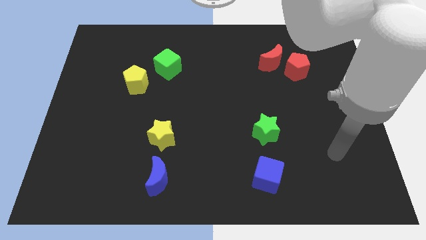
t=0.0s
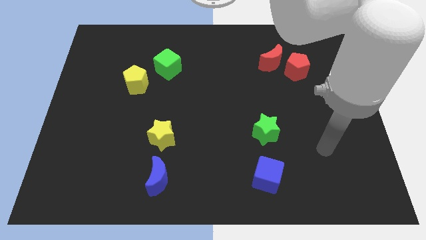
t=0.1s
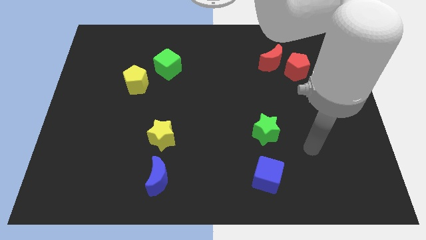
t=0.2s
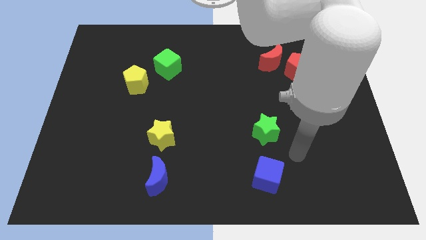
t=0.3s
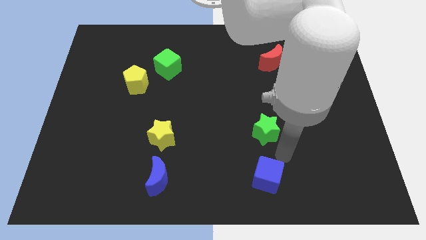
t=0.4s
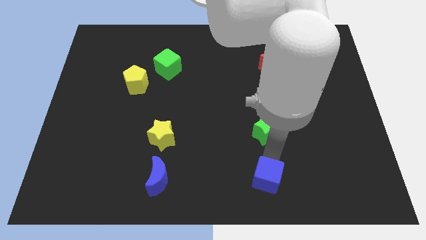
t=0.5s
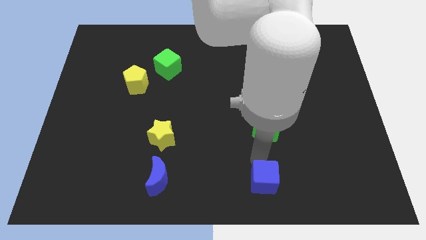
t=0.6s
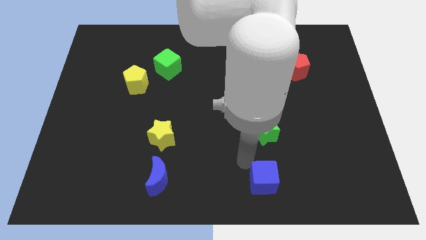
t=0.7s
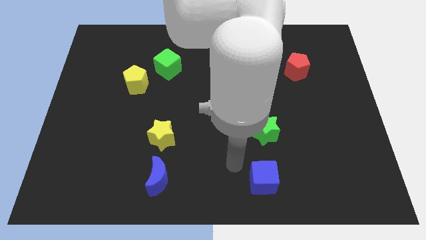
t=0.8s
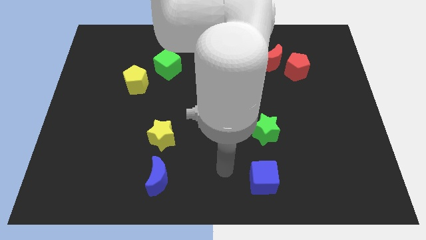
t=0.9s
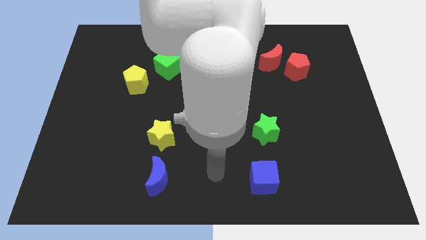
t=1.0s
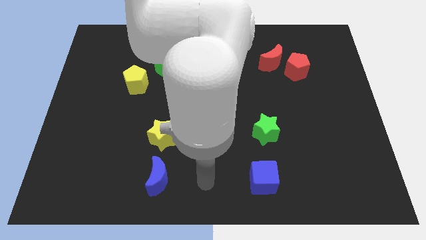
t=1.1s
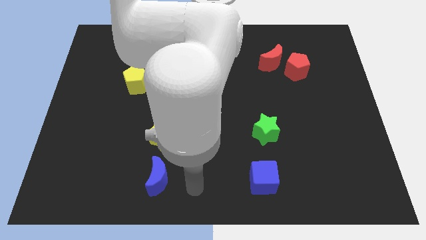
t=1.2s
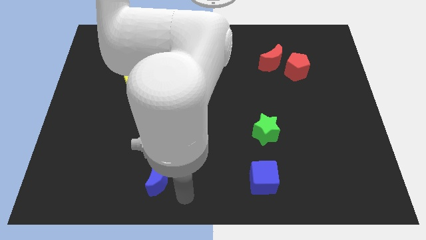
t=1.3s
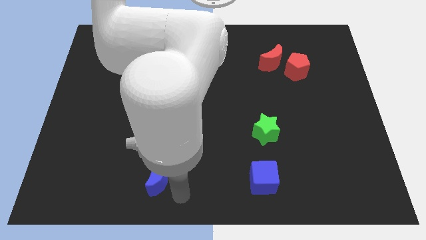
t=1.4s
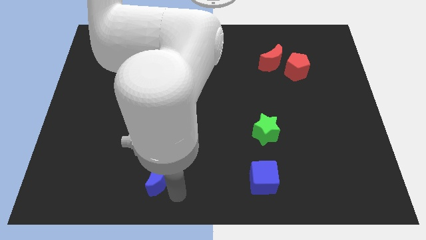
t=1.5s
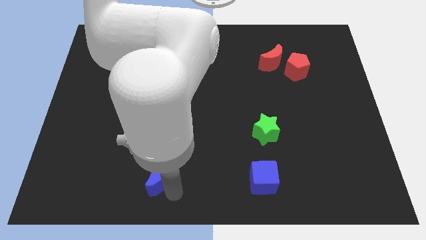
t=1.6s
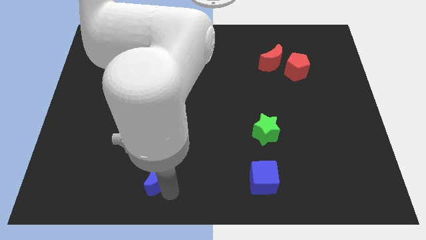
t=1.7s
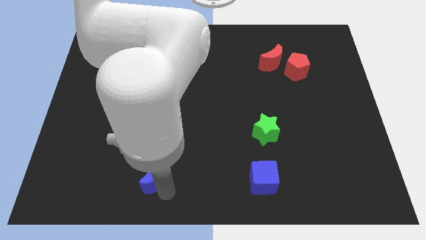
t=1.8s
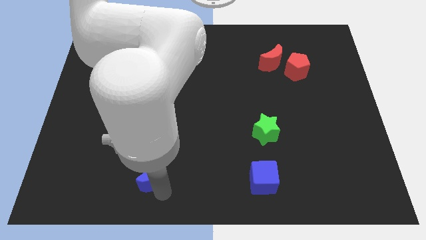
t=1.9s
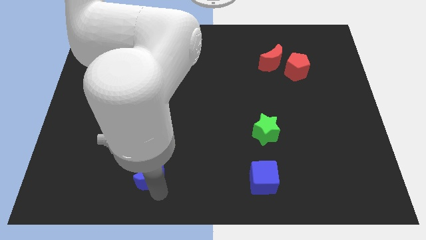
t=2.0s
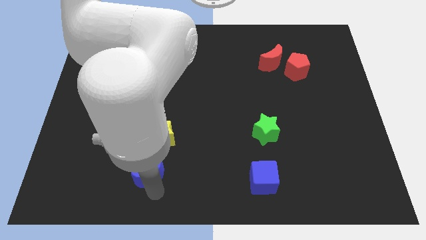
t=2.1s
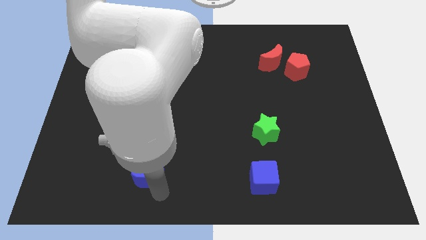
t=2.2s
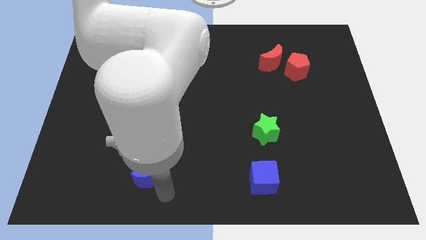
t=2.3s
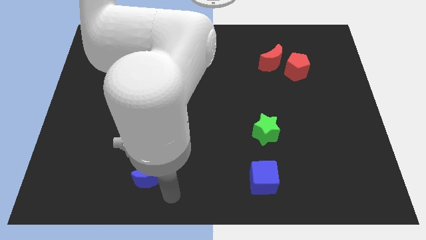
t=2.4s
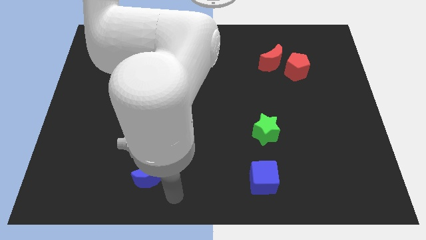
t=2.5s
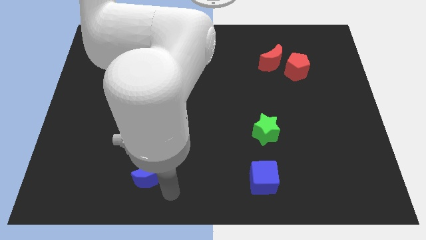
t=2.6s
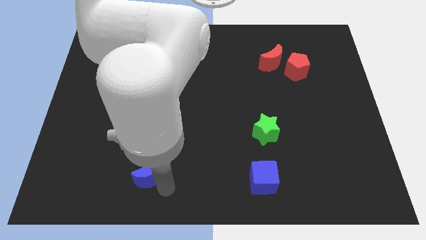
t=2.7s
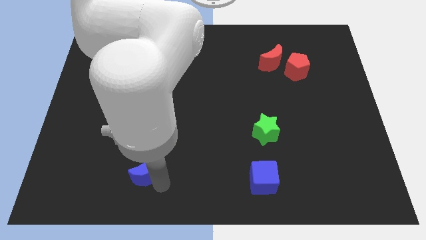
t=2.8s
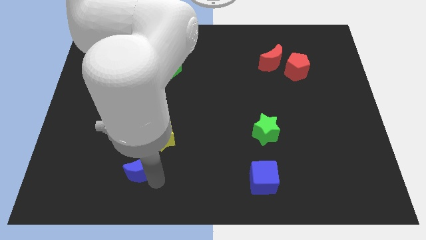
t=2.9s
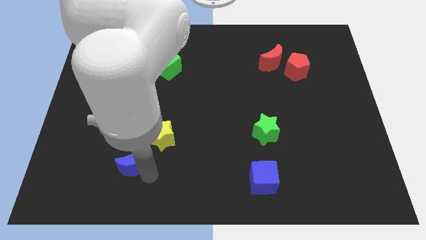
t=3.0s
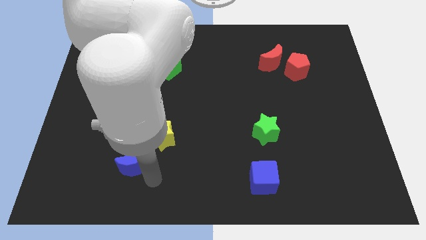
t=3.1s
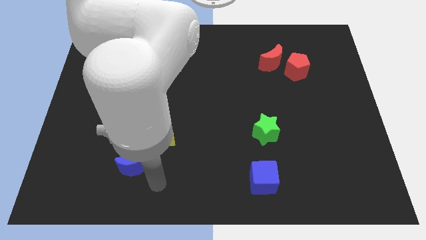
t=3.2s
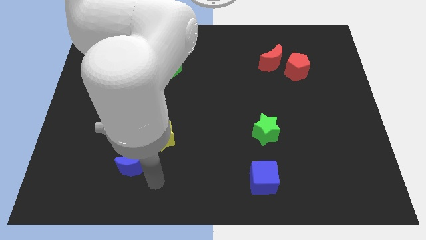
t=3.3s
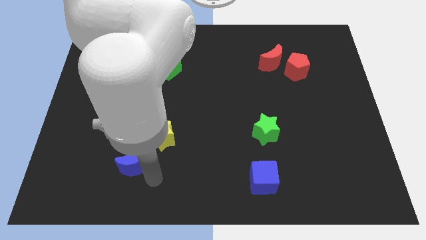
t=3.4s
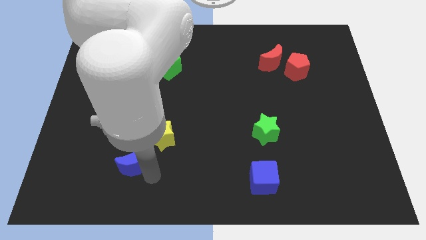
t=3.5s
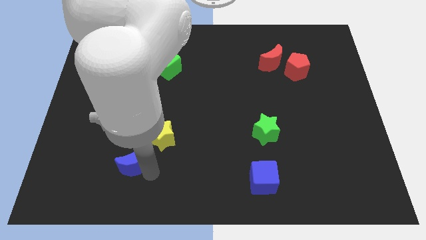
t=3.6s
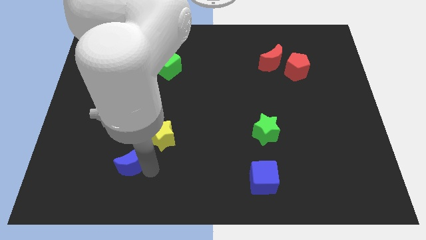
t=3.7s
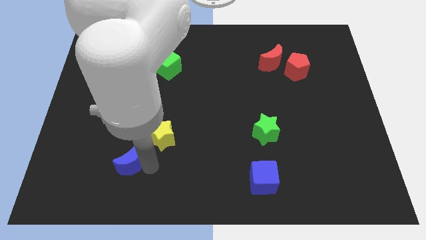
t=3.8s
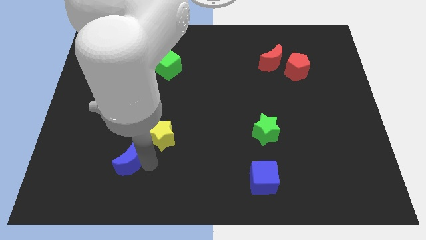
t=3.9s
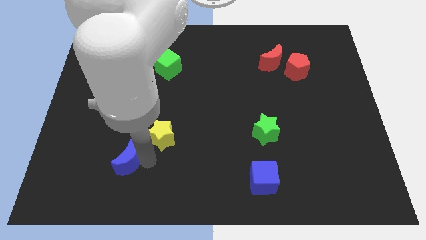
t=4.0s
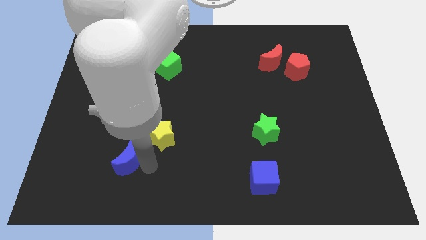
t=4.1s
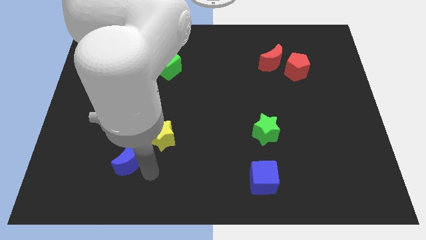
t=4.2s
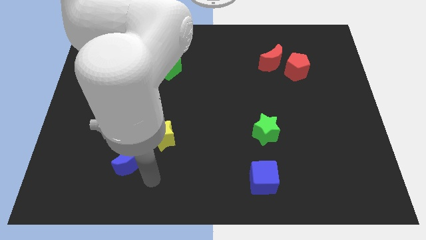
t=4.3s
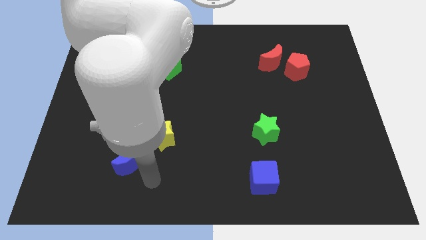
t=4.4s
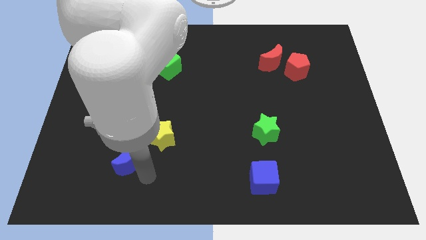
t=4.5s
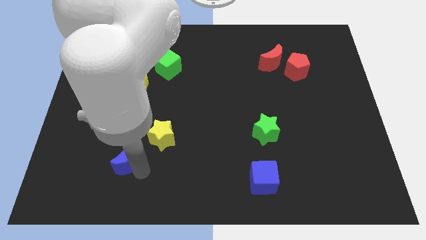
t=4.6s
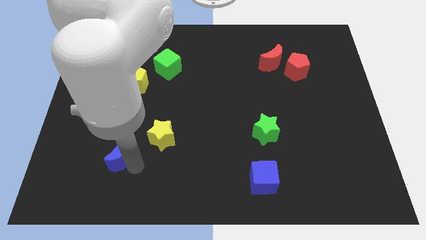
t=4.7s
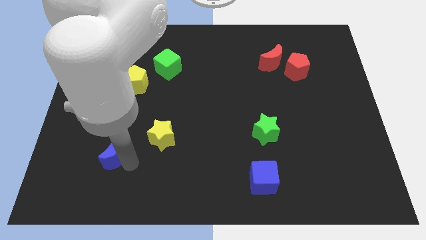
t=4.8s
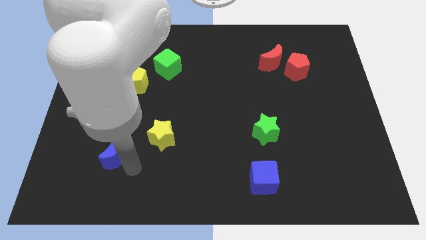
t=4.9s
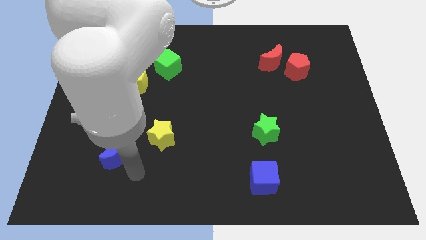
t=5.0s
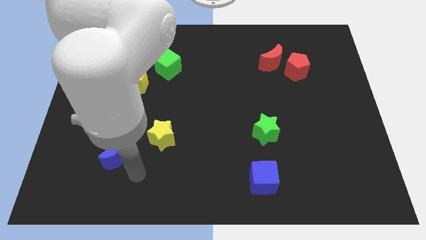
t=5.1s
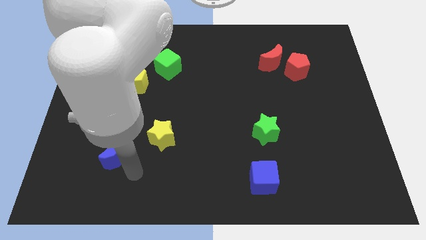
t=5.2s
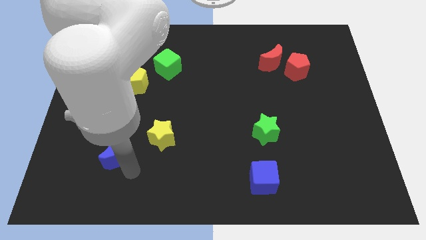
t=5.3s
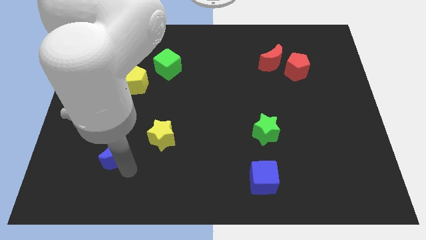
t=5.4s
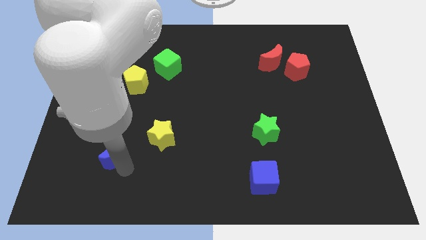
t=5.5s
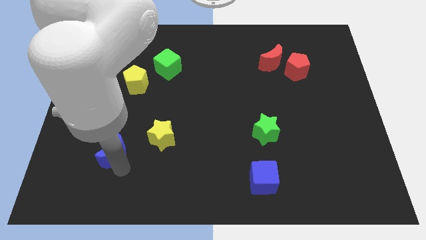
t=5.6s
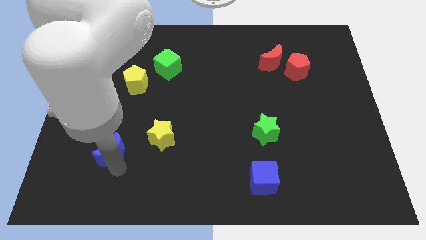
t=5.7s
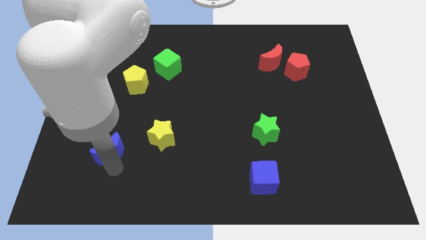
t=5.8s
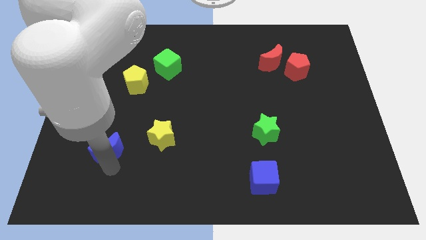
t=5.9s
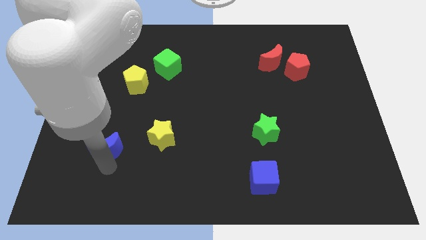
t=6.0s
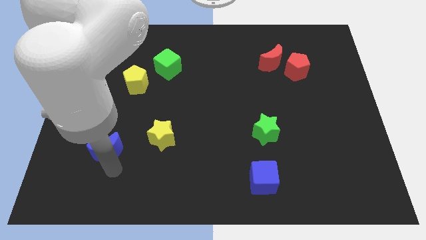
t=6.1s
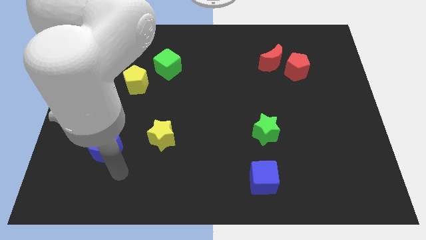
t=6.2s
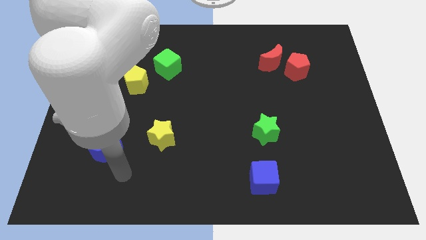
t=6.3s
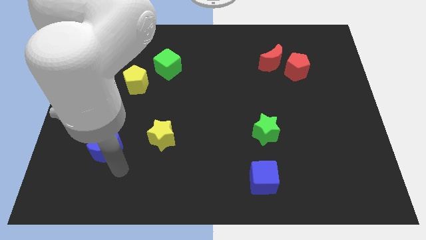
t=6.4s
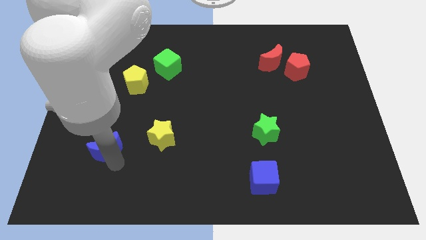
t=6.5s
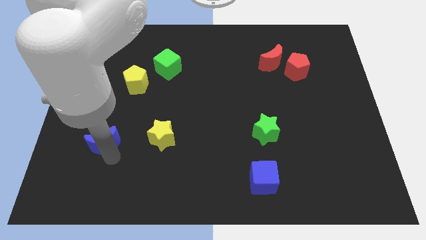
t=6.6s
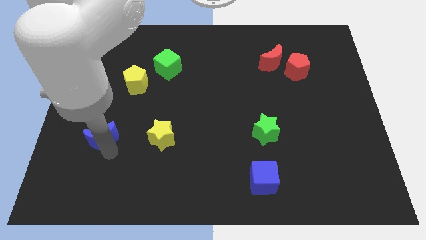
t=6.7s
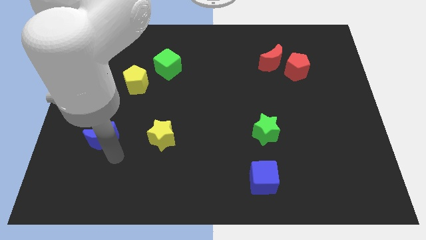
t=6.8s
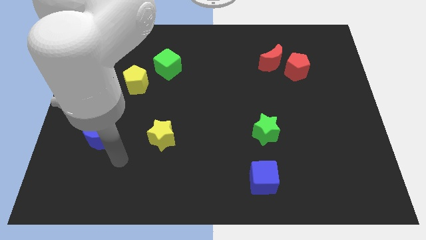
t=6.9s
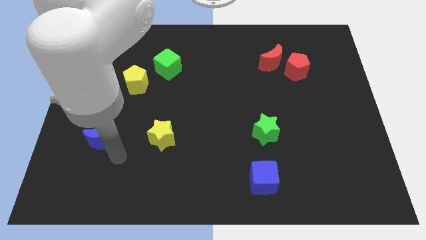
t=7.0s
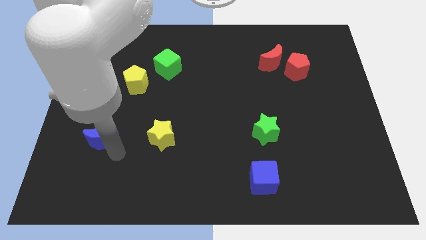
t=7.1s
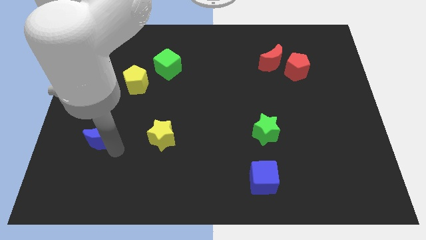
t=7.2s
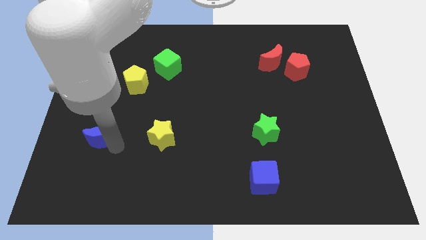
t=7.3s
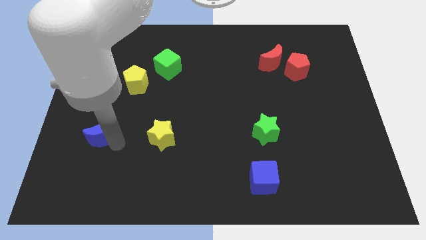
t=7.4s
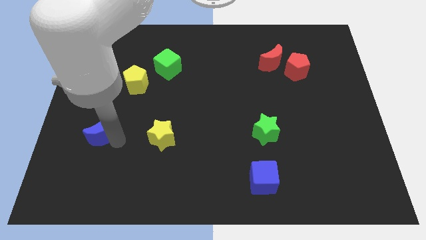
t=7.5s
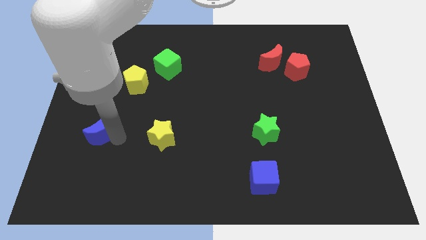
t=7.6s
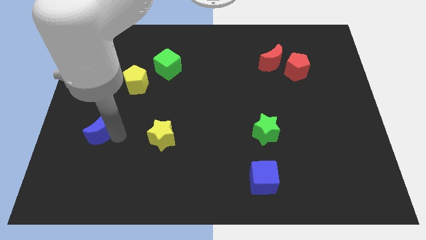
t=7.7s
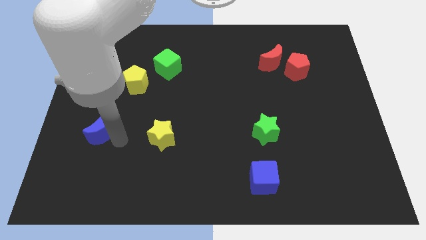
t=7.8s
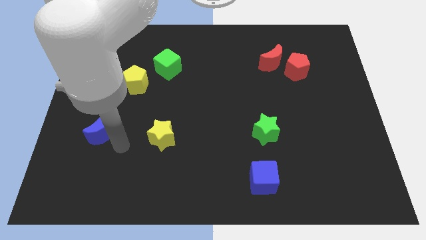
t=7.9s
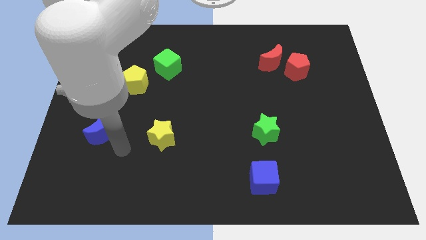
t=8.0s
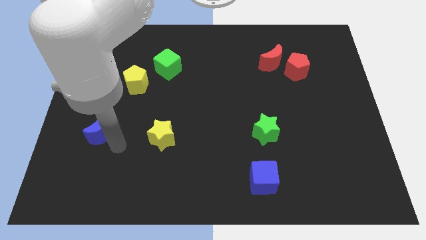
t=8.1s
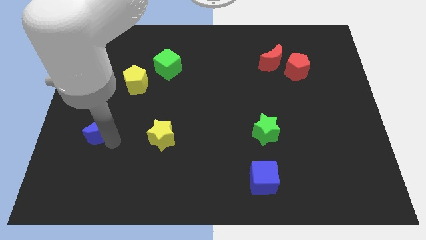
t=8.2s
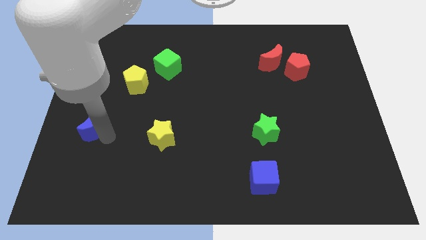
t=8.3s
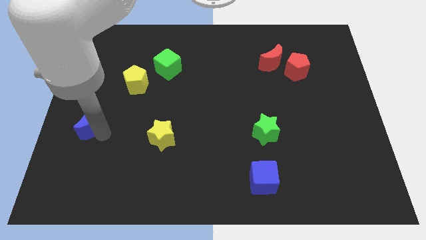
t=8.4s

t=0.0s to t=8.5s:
slide the blue moon to the left side
